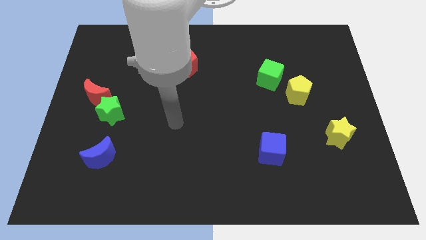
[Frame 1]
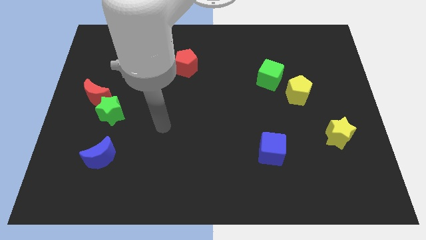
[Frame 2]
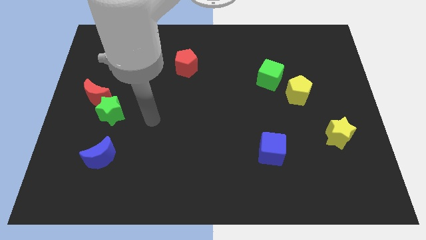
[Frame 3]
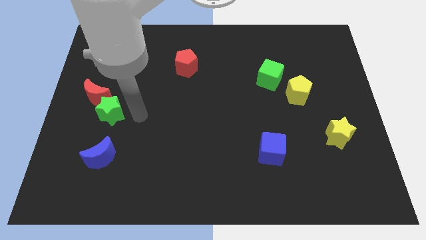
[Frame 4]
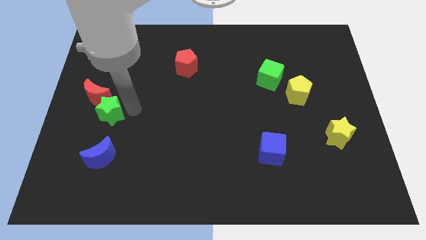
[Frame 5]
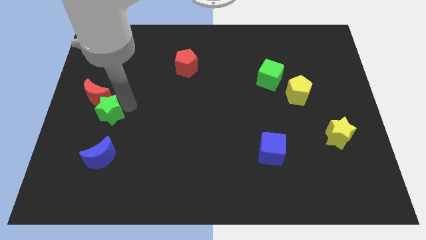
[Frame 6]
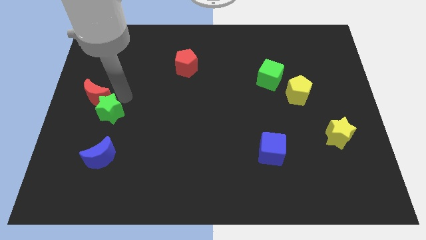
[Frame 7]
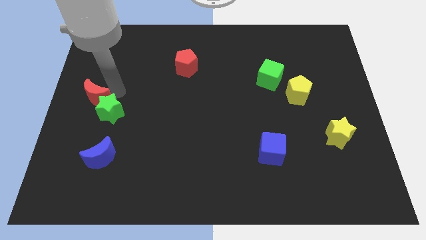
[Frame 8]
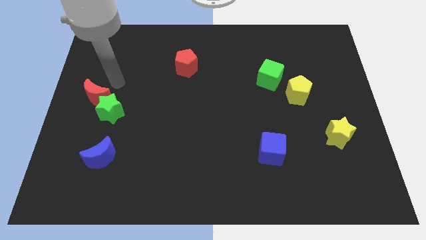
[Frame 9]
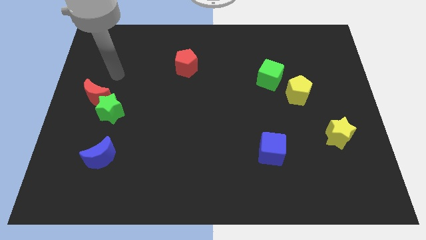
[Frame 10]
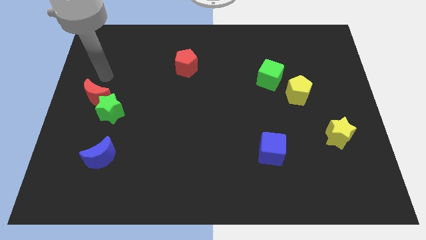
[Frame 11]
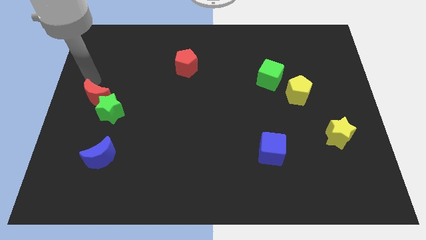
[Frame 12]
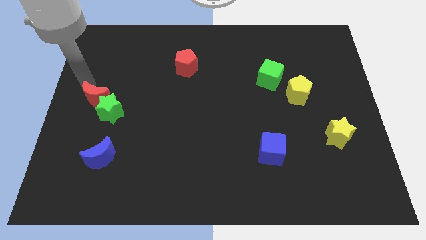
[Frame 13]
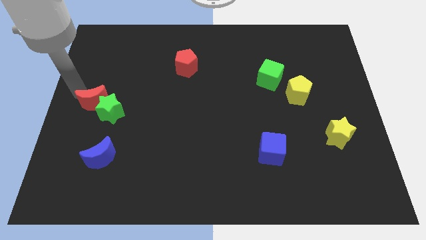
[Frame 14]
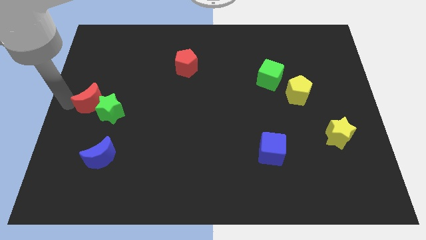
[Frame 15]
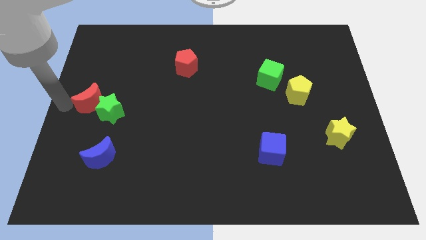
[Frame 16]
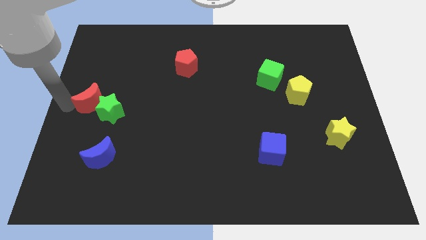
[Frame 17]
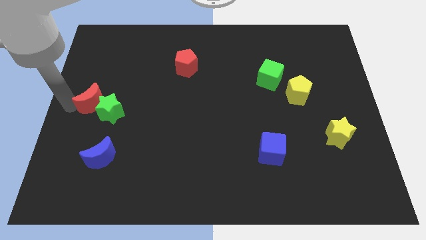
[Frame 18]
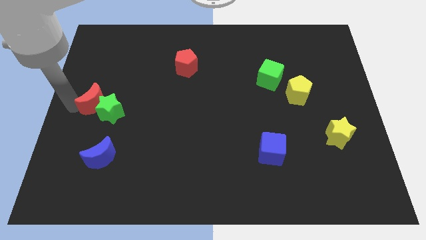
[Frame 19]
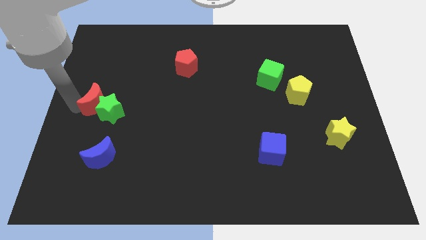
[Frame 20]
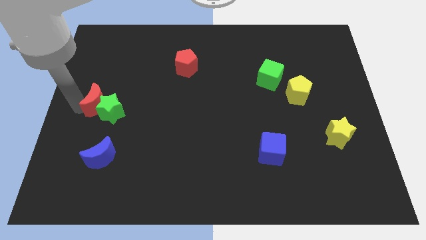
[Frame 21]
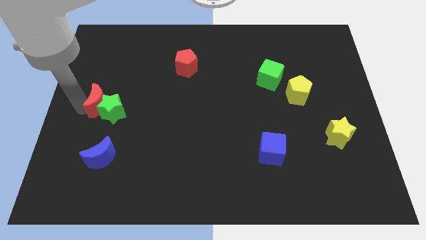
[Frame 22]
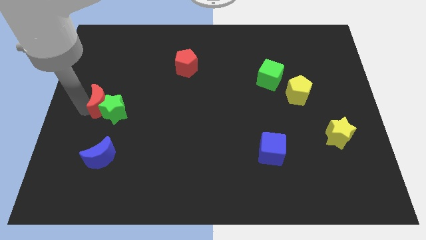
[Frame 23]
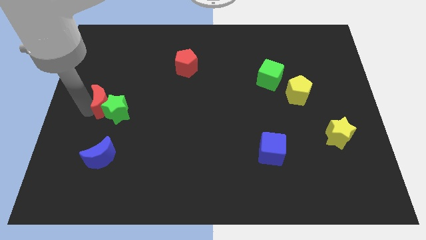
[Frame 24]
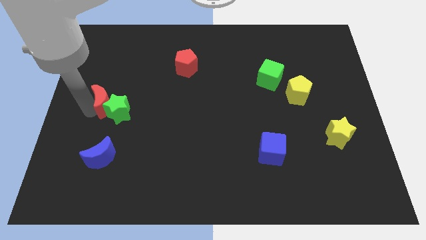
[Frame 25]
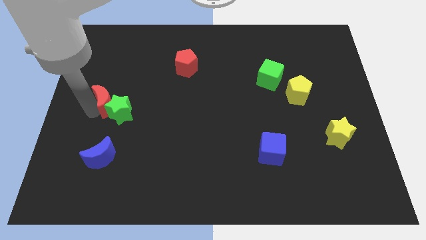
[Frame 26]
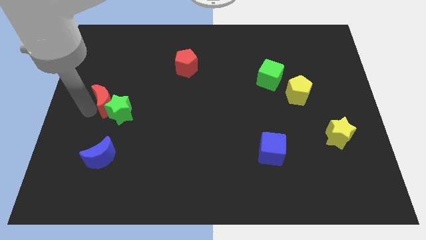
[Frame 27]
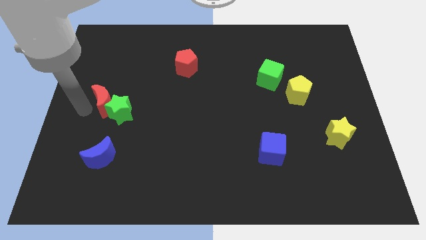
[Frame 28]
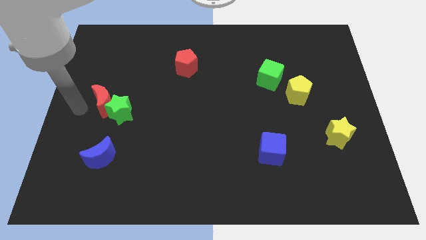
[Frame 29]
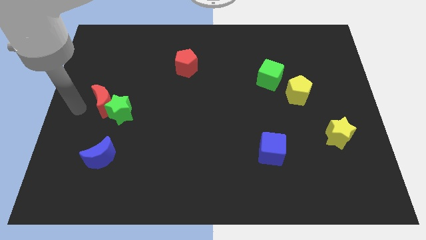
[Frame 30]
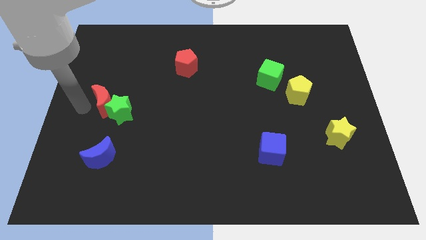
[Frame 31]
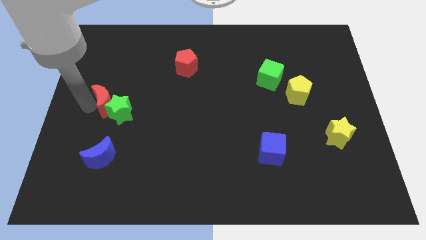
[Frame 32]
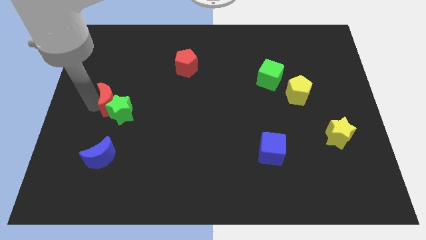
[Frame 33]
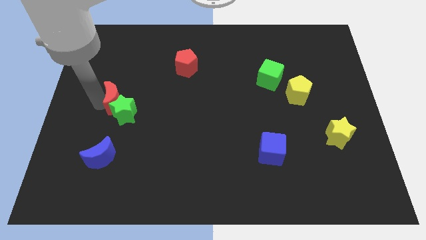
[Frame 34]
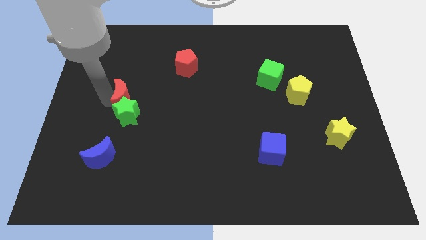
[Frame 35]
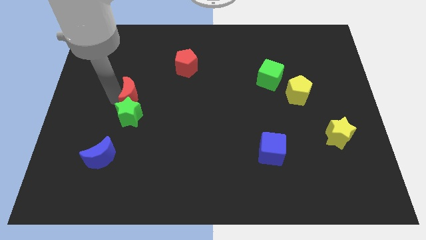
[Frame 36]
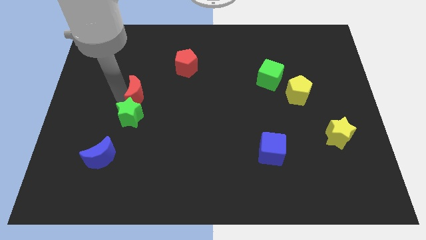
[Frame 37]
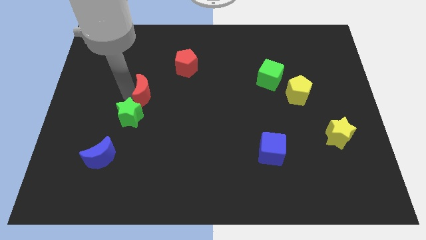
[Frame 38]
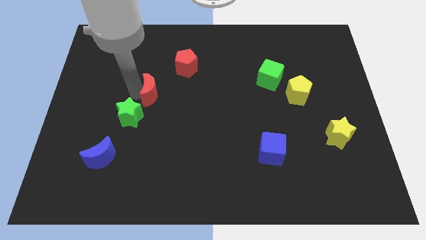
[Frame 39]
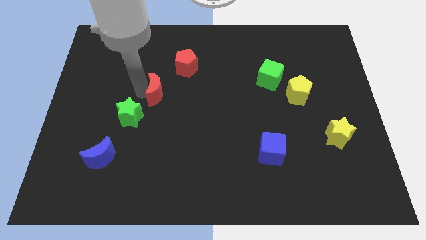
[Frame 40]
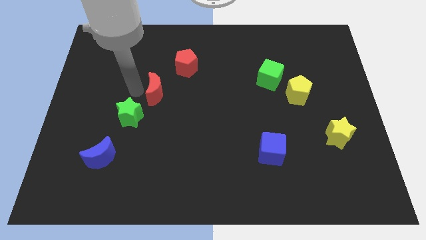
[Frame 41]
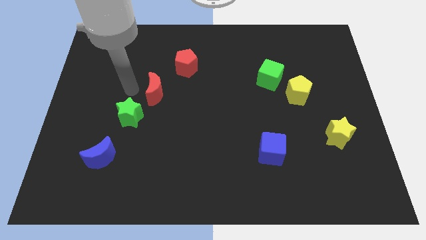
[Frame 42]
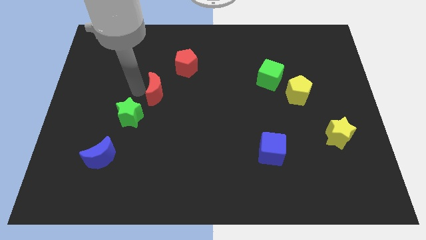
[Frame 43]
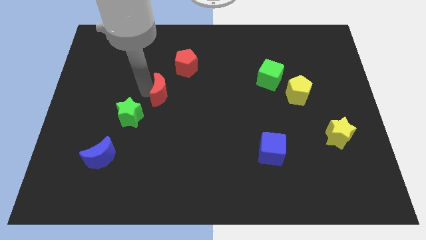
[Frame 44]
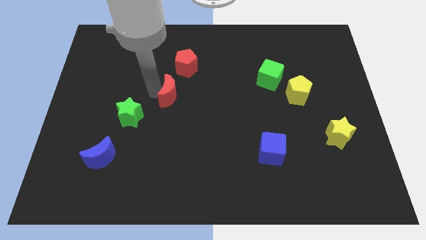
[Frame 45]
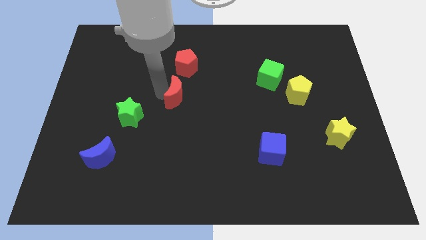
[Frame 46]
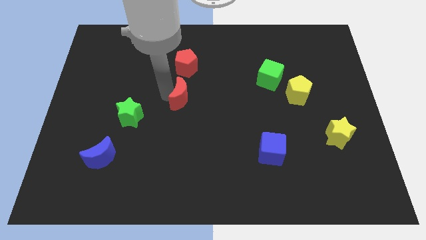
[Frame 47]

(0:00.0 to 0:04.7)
push the red moon right

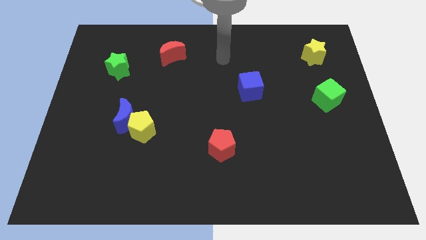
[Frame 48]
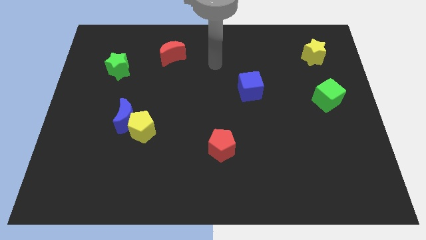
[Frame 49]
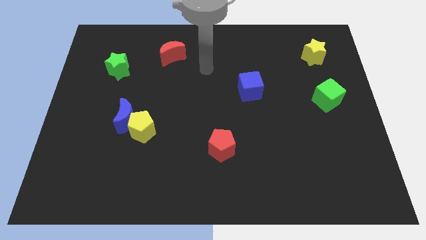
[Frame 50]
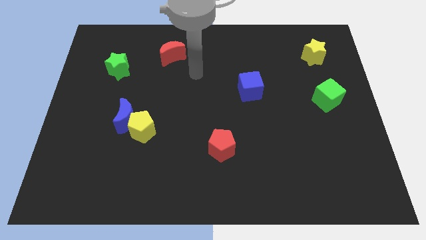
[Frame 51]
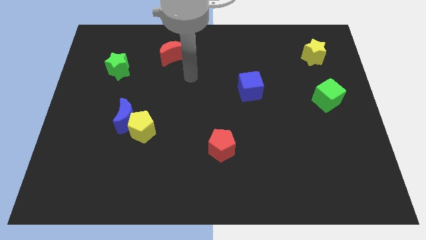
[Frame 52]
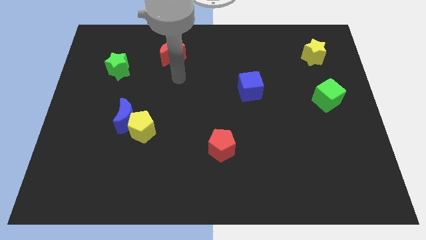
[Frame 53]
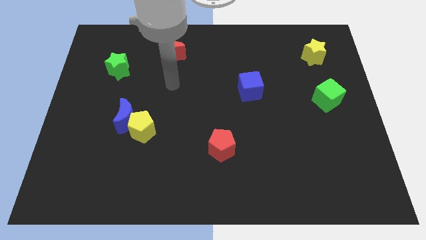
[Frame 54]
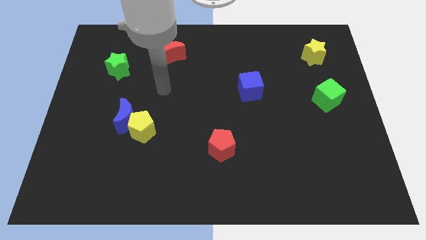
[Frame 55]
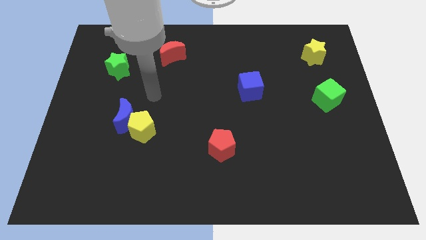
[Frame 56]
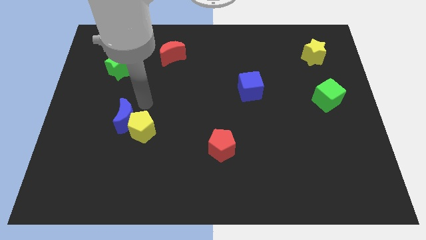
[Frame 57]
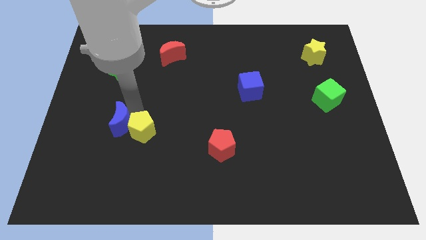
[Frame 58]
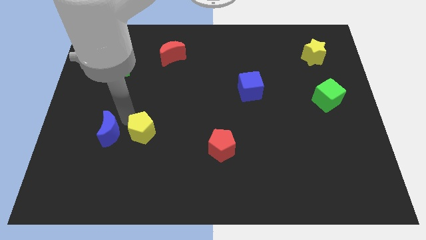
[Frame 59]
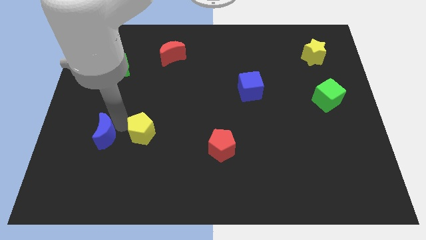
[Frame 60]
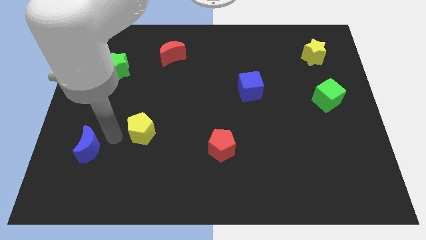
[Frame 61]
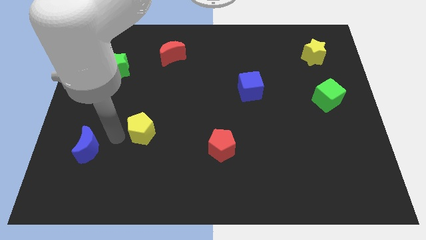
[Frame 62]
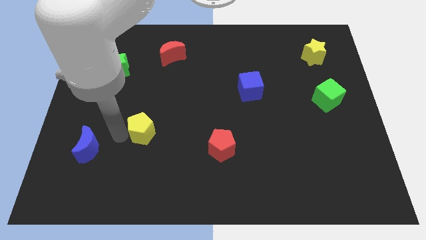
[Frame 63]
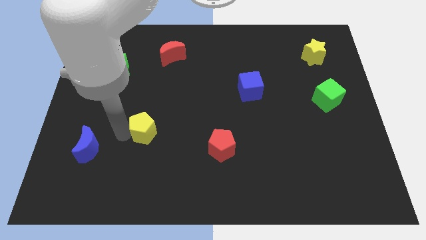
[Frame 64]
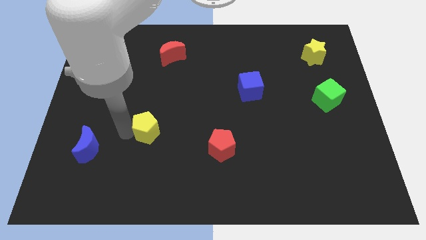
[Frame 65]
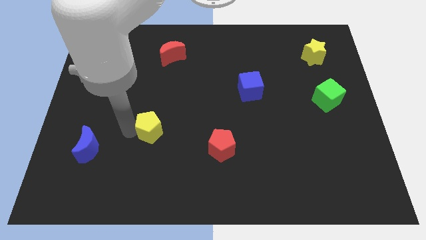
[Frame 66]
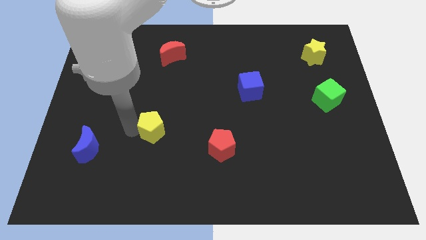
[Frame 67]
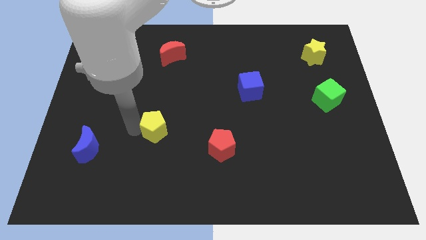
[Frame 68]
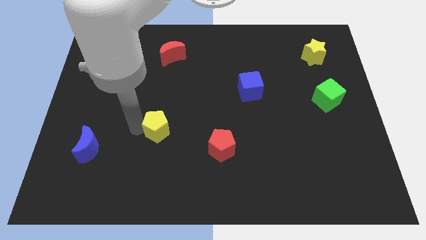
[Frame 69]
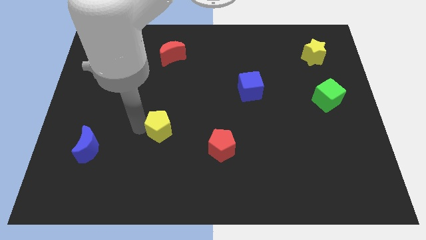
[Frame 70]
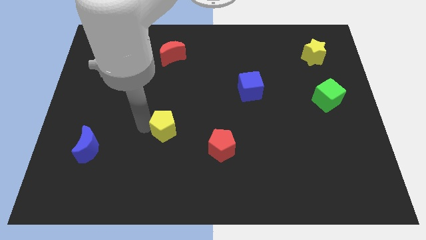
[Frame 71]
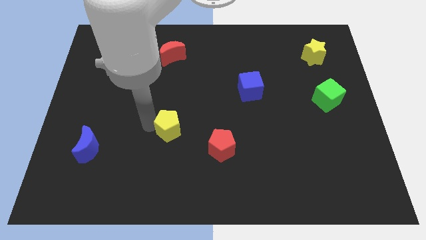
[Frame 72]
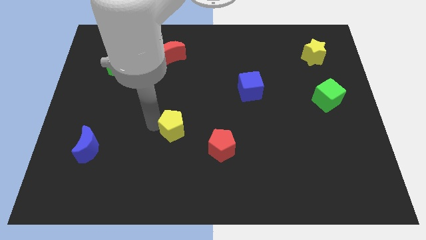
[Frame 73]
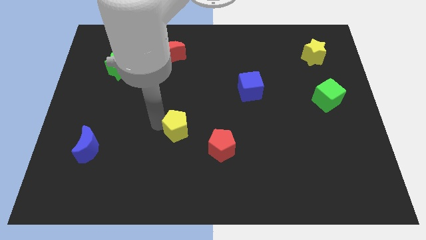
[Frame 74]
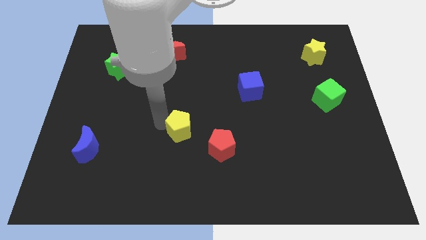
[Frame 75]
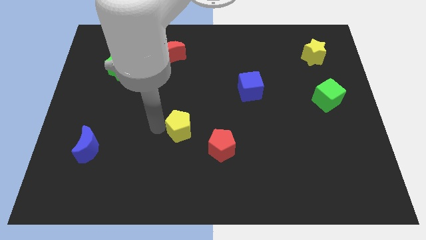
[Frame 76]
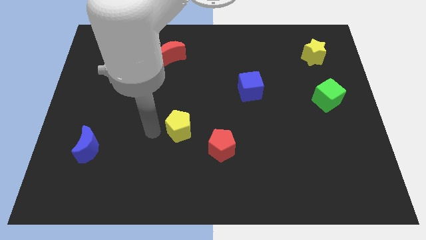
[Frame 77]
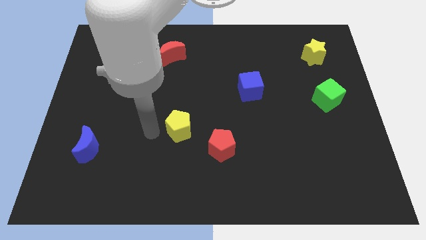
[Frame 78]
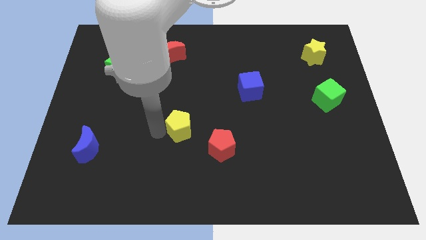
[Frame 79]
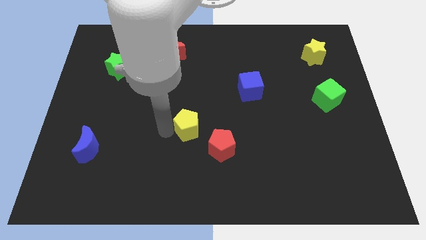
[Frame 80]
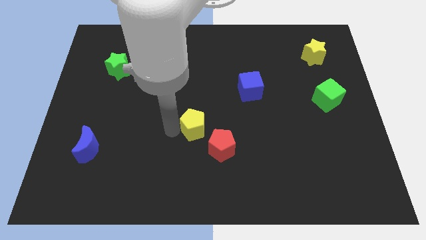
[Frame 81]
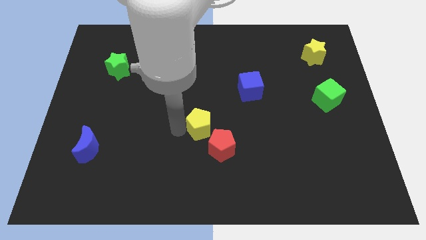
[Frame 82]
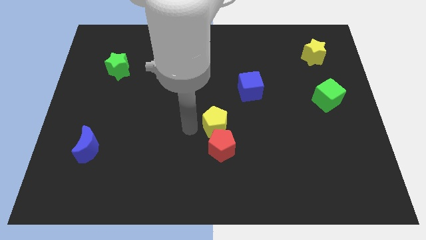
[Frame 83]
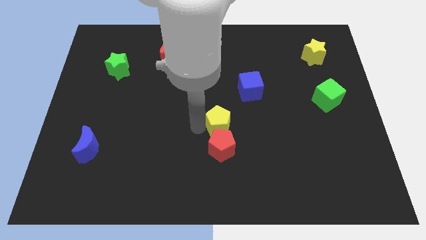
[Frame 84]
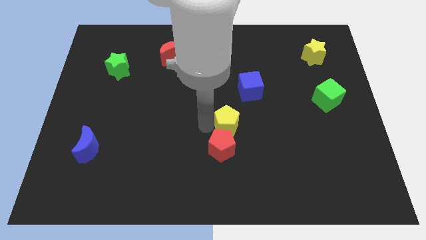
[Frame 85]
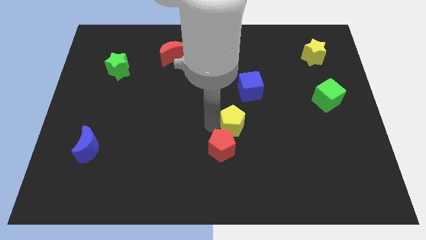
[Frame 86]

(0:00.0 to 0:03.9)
move the yellow pentagon right
